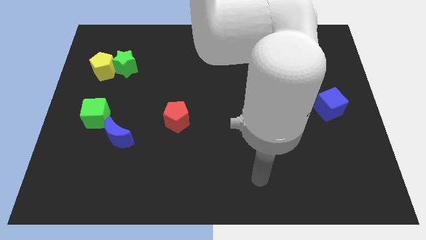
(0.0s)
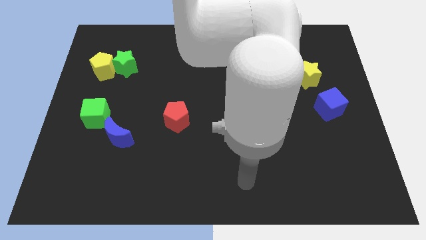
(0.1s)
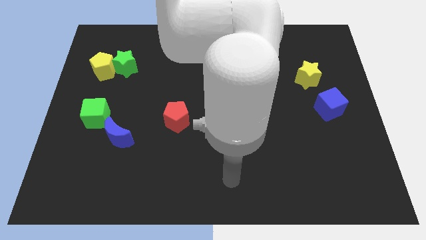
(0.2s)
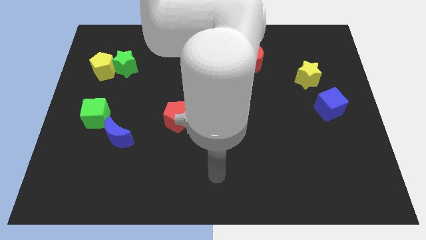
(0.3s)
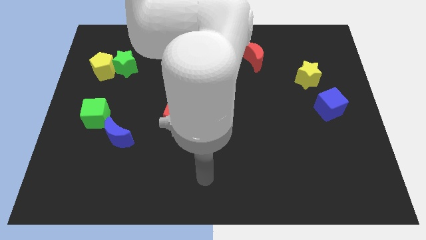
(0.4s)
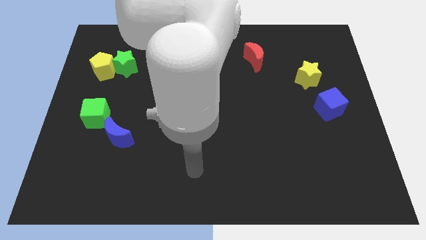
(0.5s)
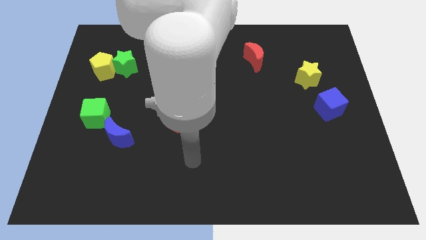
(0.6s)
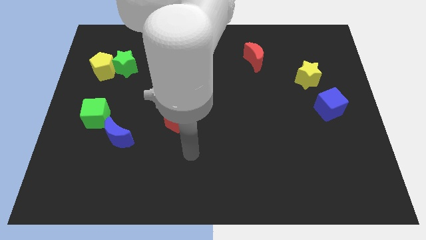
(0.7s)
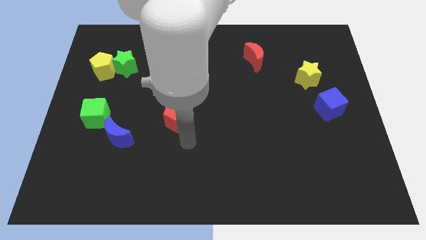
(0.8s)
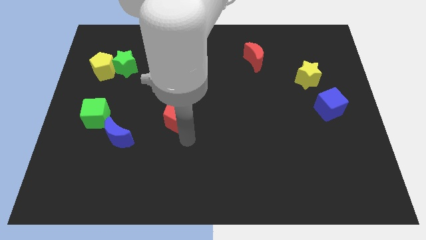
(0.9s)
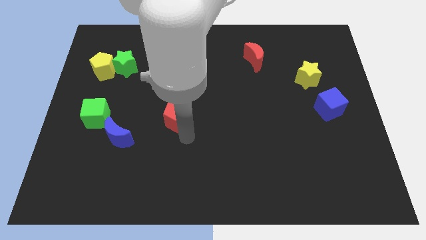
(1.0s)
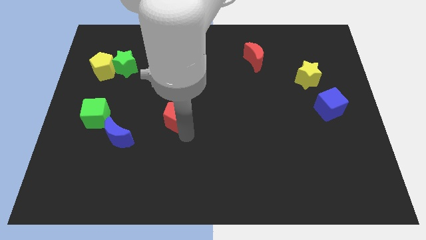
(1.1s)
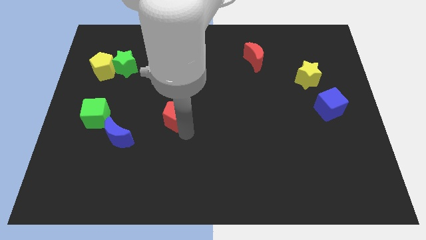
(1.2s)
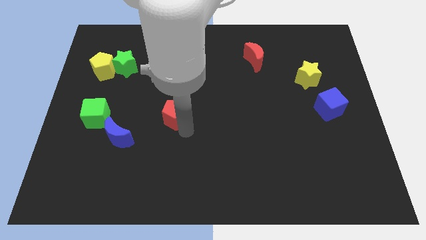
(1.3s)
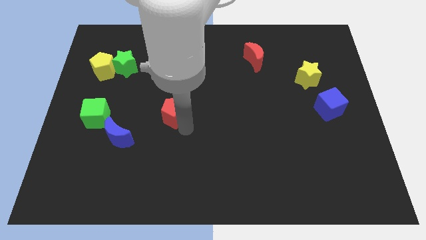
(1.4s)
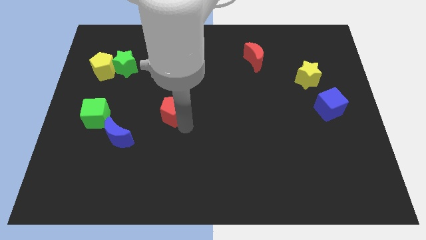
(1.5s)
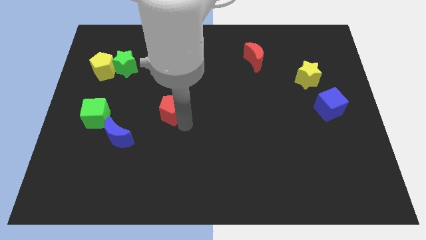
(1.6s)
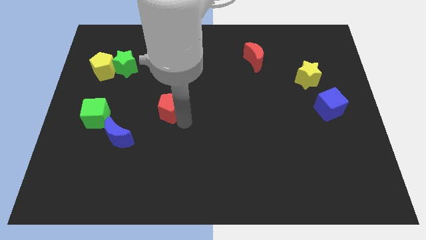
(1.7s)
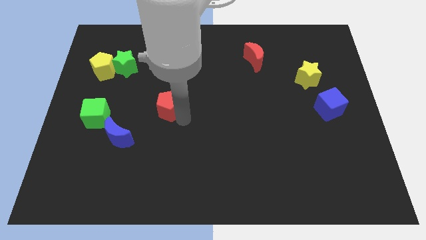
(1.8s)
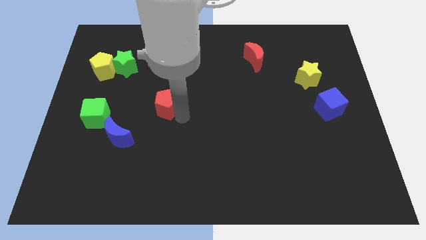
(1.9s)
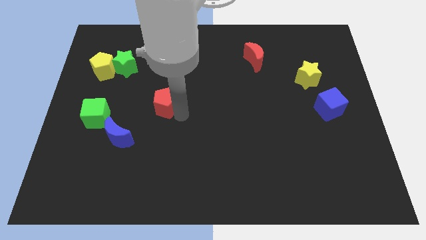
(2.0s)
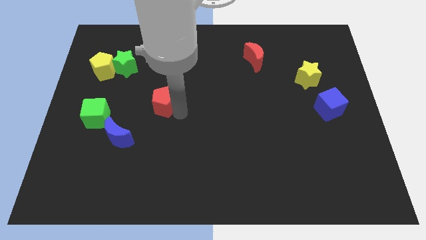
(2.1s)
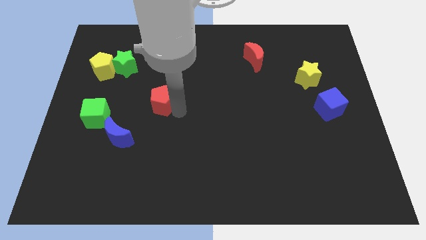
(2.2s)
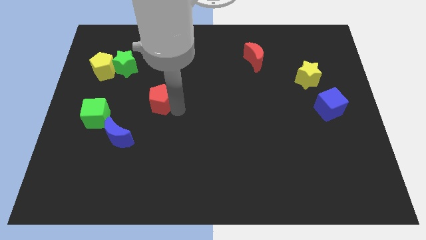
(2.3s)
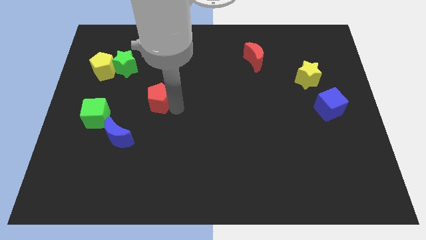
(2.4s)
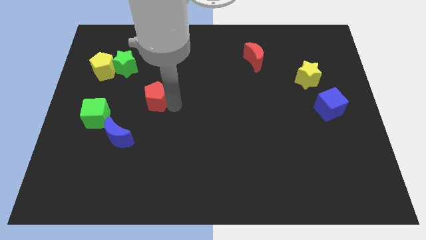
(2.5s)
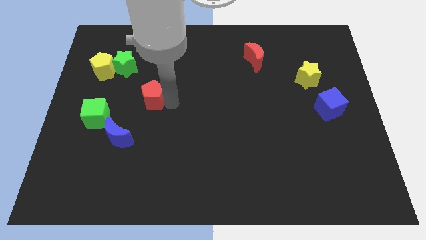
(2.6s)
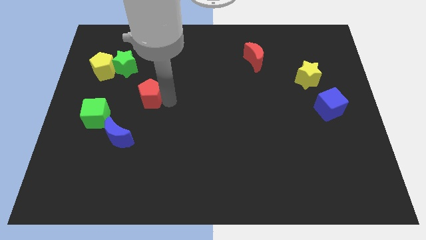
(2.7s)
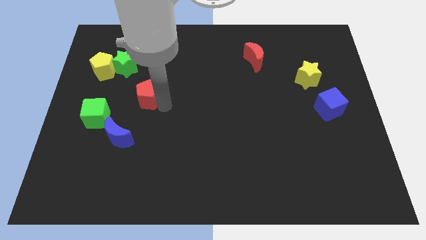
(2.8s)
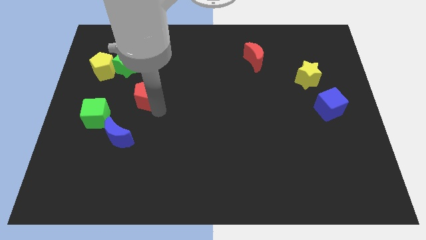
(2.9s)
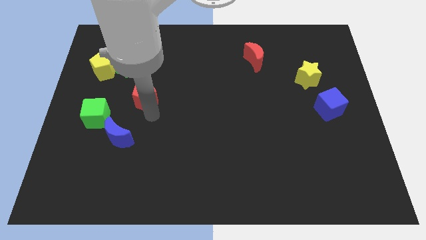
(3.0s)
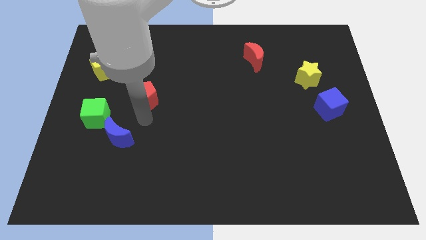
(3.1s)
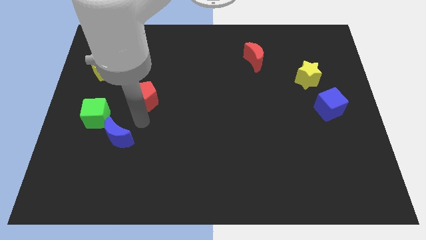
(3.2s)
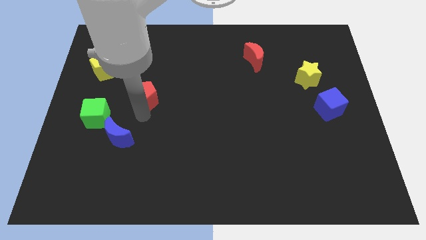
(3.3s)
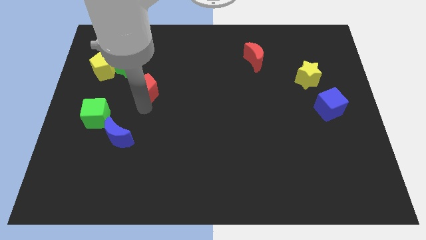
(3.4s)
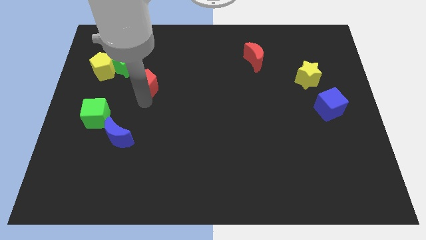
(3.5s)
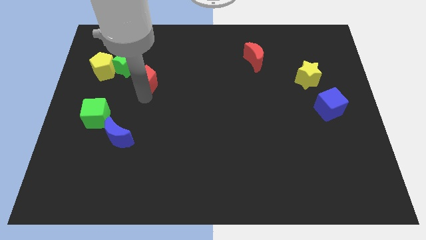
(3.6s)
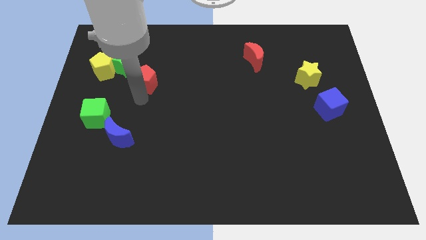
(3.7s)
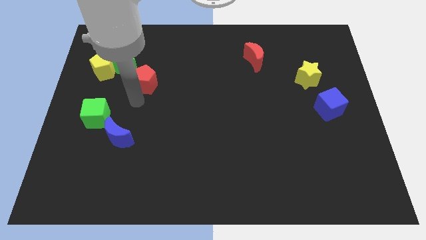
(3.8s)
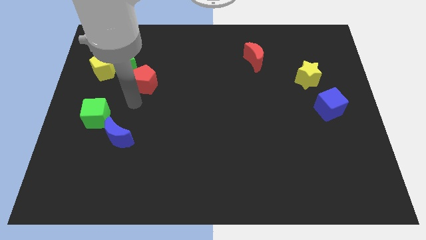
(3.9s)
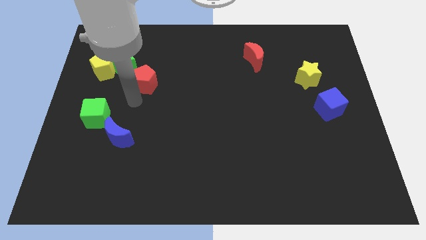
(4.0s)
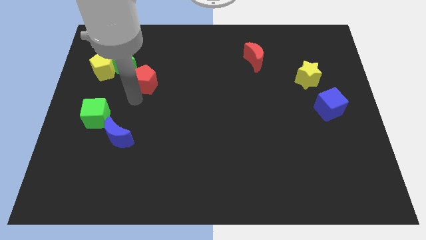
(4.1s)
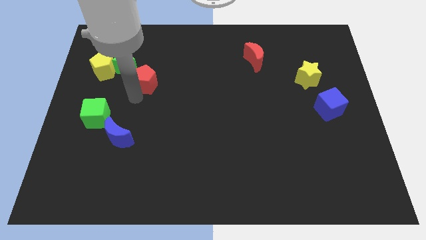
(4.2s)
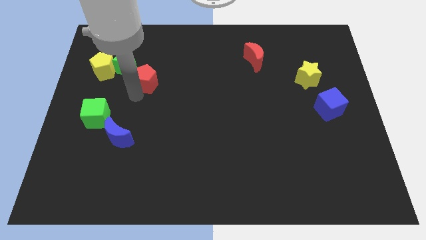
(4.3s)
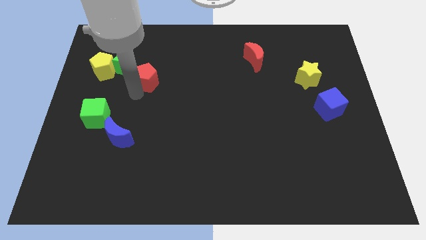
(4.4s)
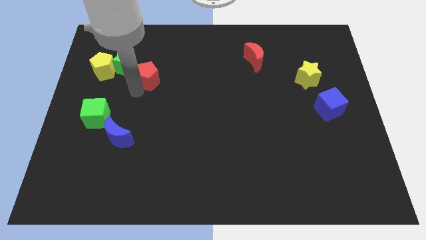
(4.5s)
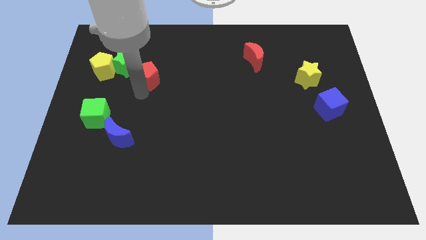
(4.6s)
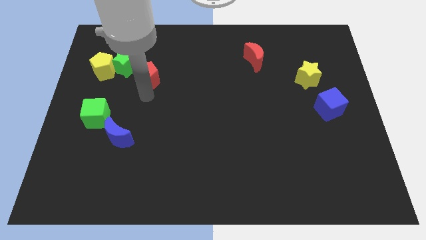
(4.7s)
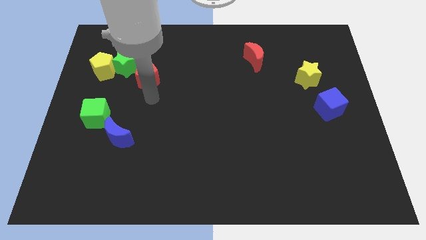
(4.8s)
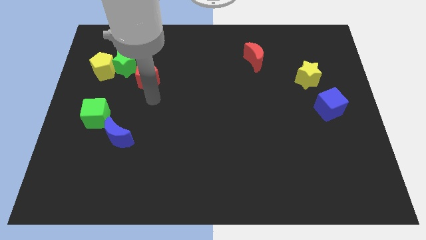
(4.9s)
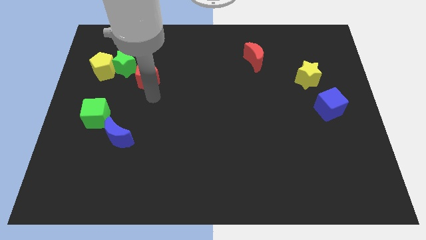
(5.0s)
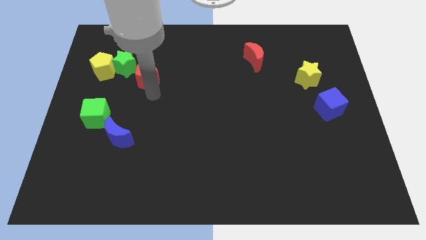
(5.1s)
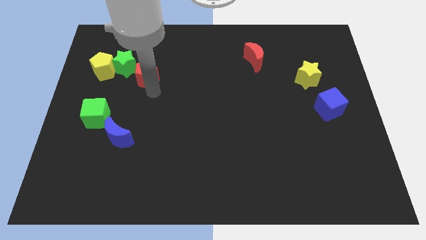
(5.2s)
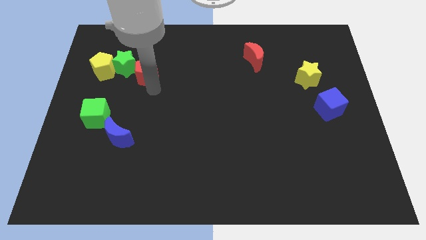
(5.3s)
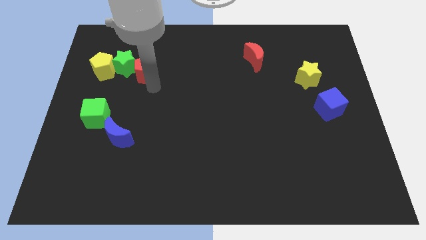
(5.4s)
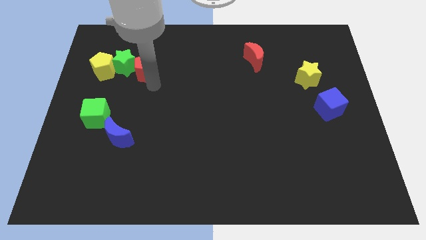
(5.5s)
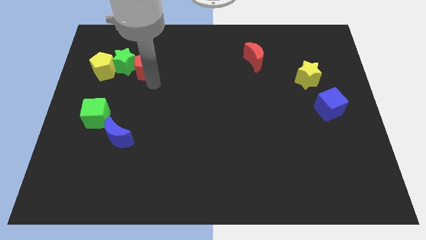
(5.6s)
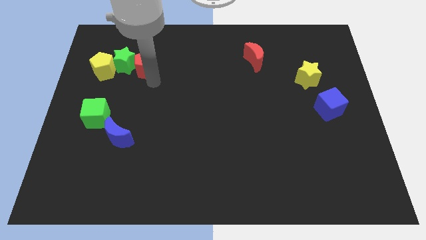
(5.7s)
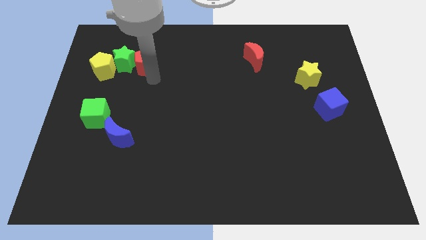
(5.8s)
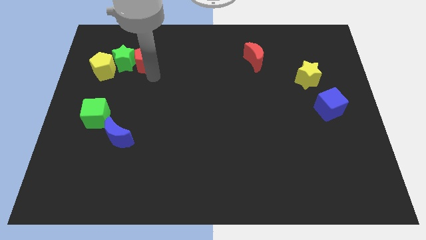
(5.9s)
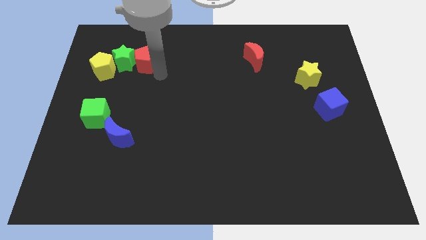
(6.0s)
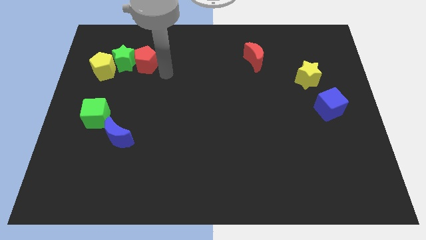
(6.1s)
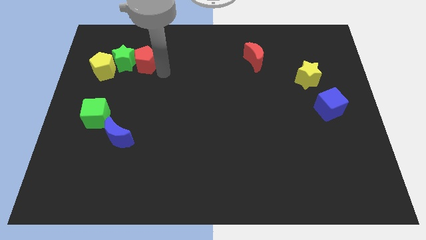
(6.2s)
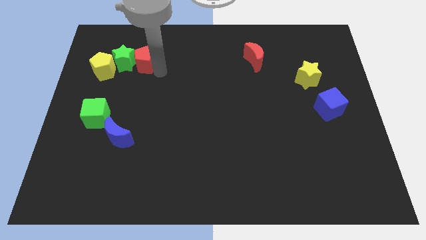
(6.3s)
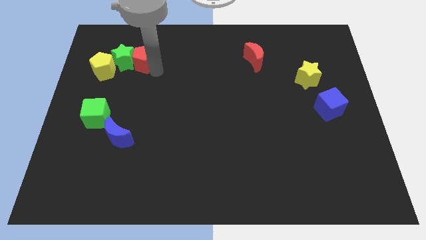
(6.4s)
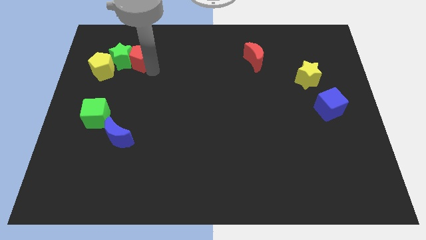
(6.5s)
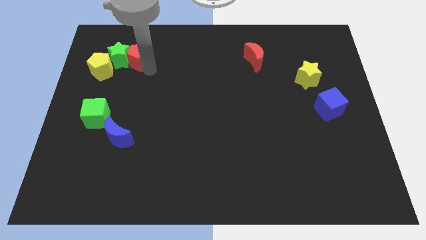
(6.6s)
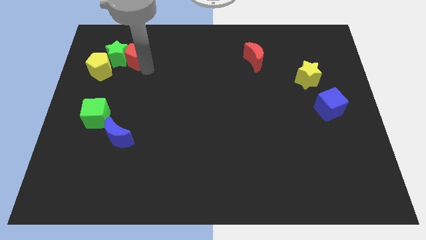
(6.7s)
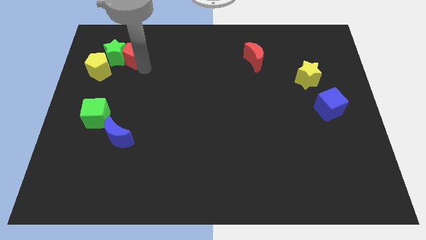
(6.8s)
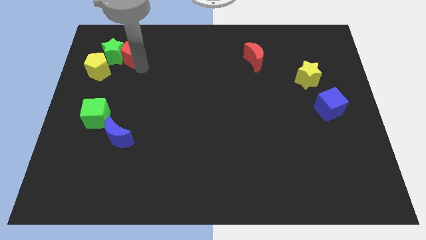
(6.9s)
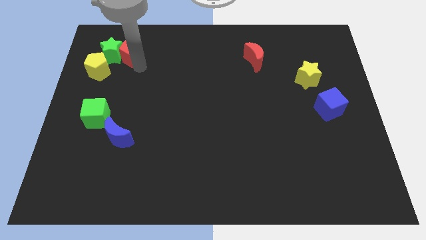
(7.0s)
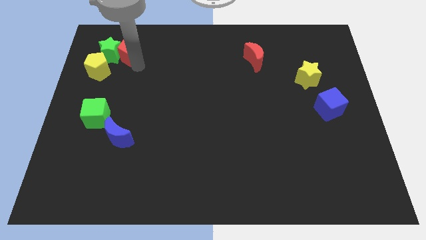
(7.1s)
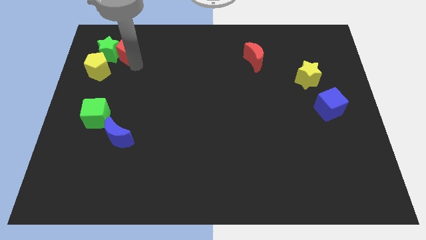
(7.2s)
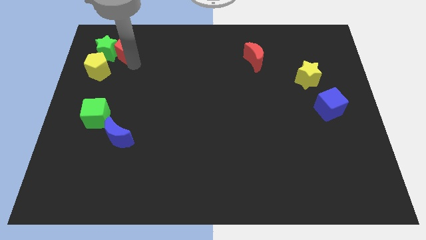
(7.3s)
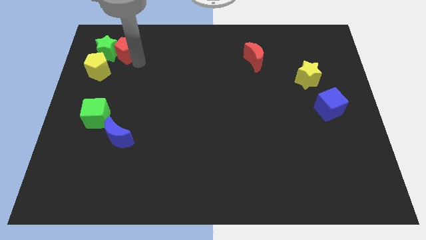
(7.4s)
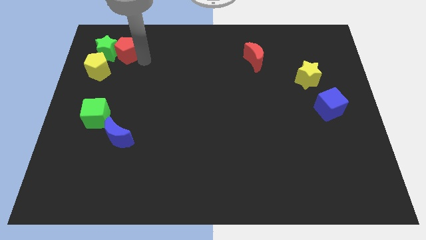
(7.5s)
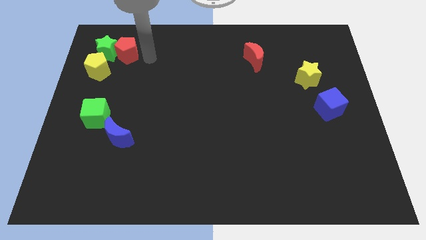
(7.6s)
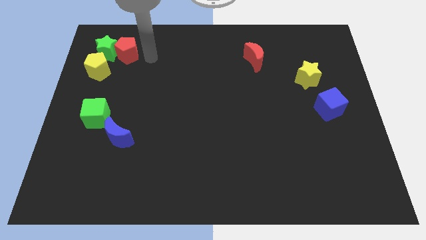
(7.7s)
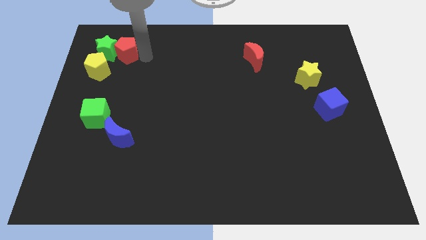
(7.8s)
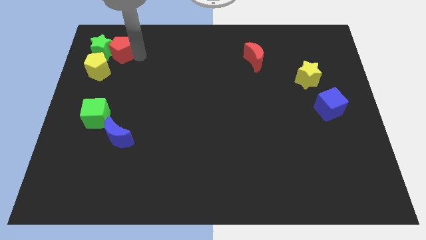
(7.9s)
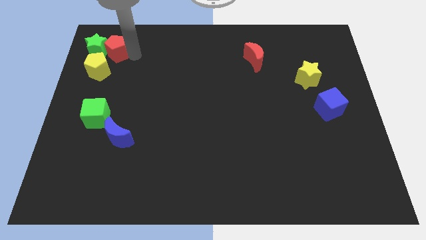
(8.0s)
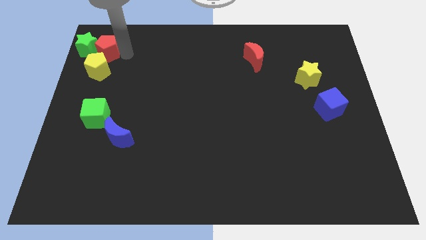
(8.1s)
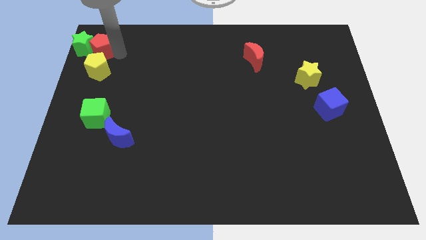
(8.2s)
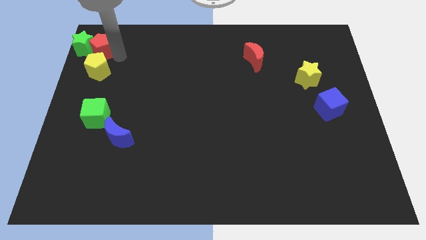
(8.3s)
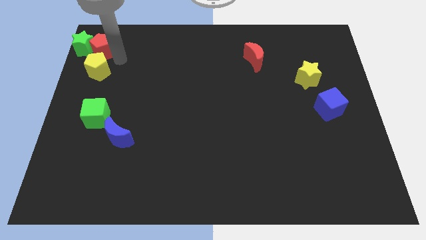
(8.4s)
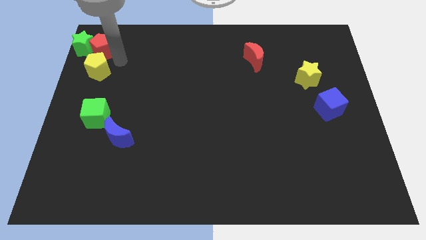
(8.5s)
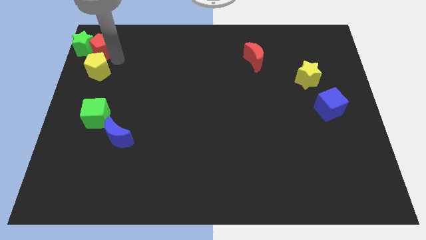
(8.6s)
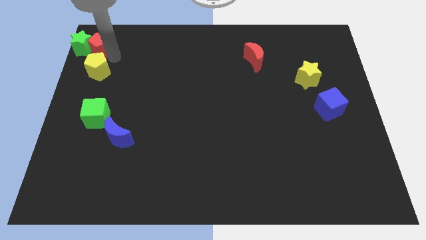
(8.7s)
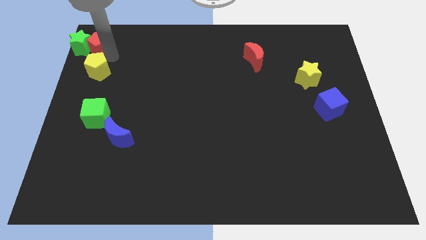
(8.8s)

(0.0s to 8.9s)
push the red pentagon to the top left
